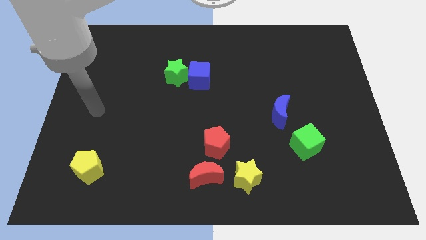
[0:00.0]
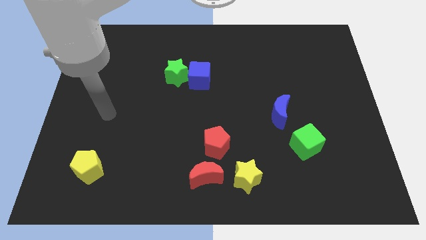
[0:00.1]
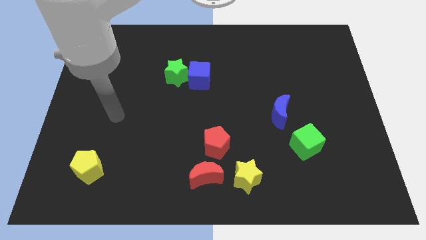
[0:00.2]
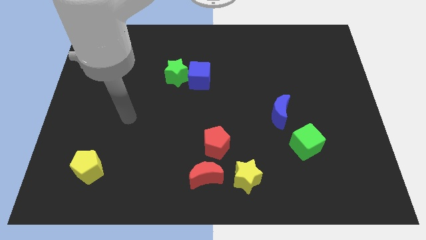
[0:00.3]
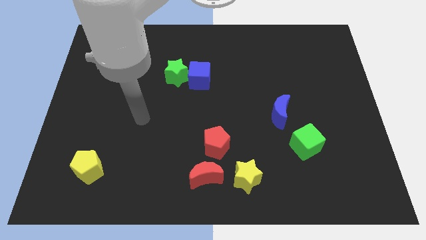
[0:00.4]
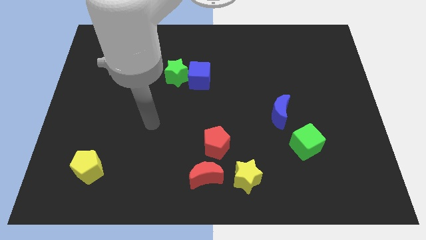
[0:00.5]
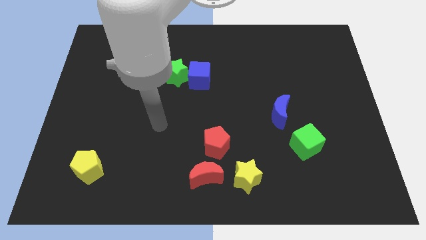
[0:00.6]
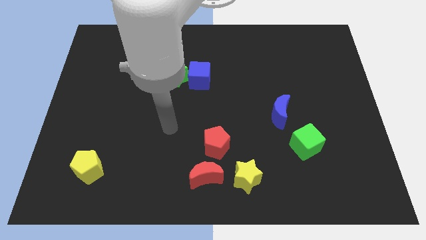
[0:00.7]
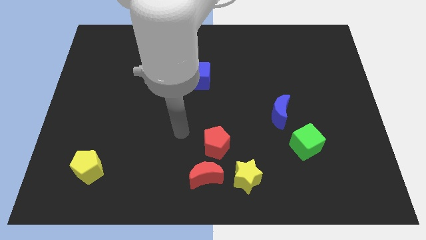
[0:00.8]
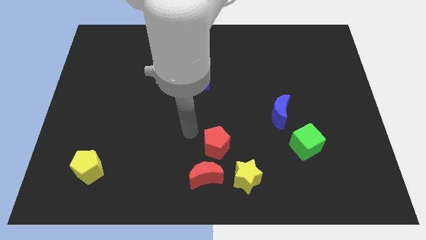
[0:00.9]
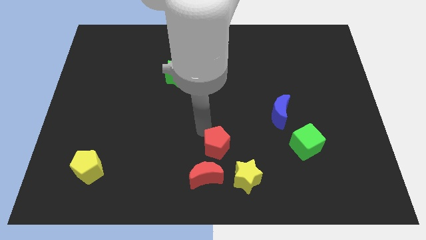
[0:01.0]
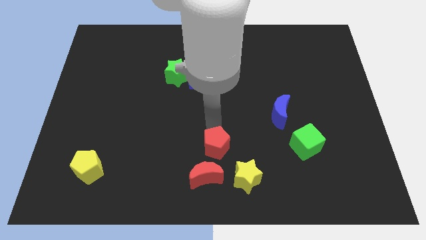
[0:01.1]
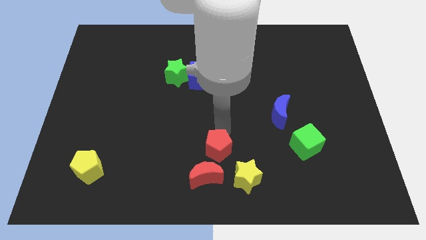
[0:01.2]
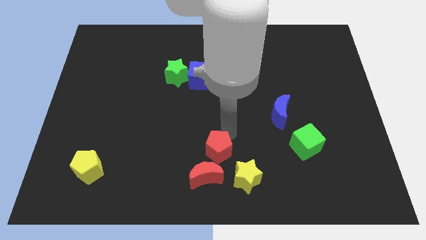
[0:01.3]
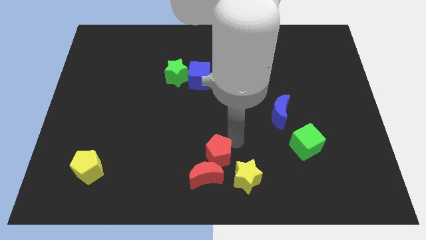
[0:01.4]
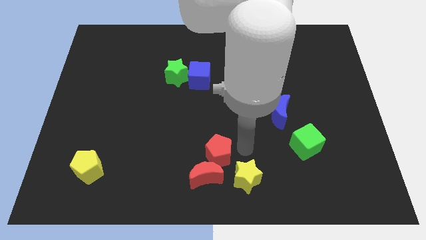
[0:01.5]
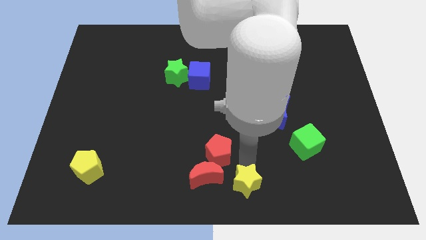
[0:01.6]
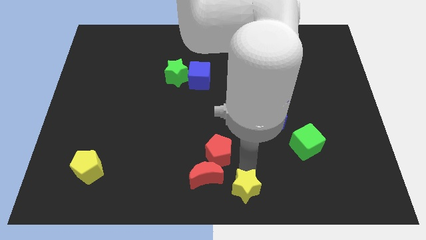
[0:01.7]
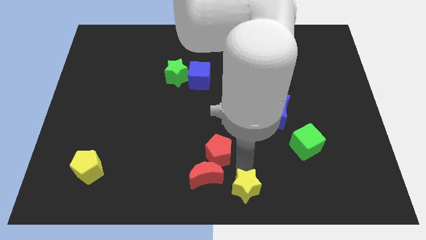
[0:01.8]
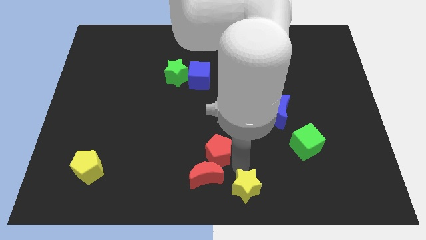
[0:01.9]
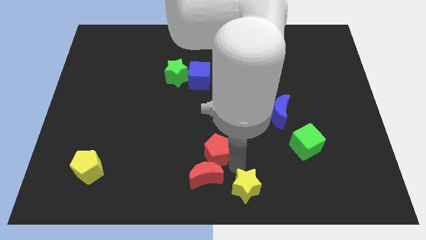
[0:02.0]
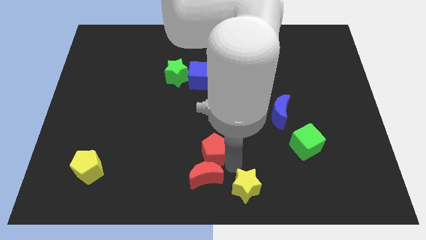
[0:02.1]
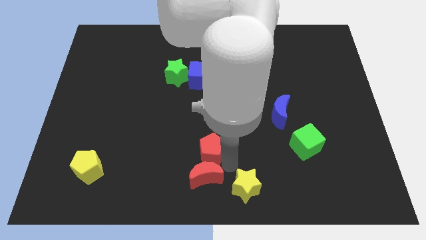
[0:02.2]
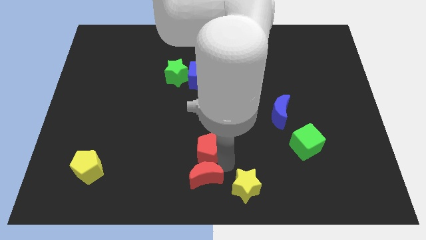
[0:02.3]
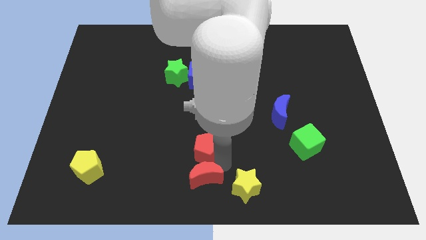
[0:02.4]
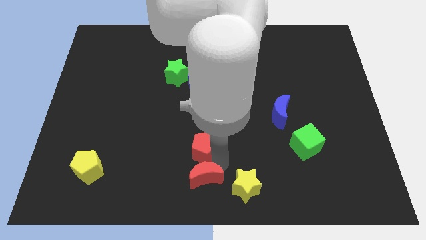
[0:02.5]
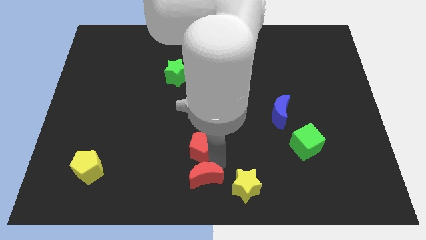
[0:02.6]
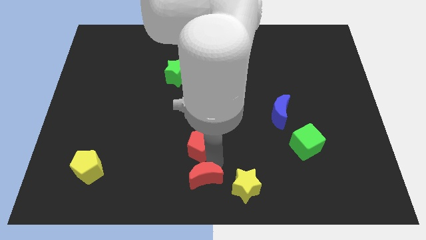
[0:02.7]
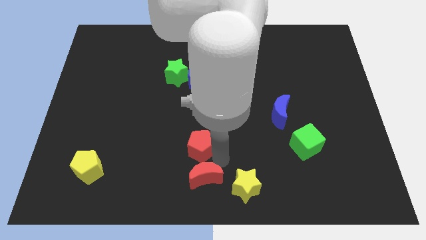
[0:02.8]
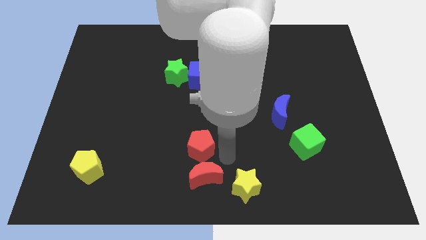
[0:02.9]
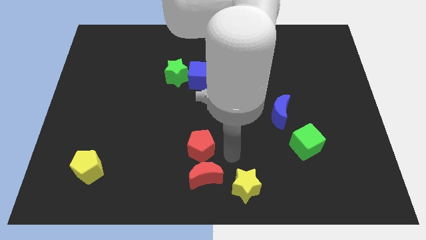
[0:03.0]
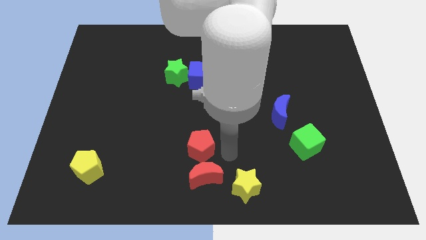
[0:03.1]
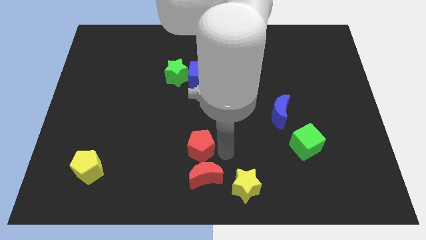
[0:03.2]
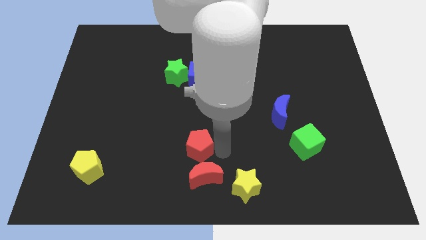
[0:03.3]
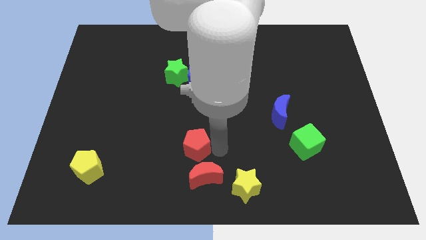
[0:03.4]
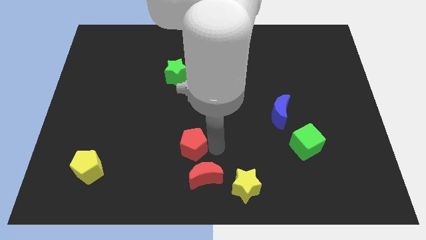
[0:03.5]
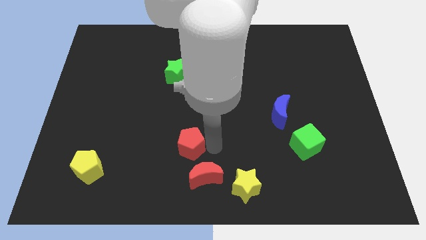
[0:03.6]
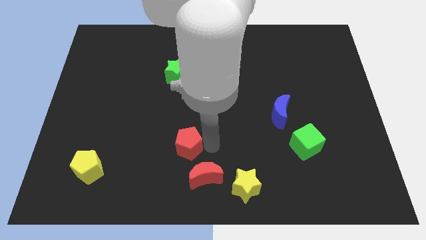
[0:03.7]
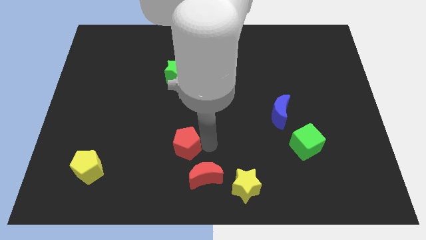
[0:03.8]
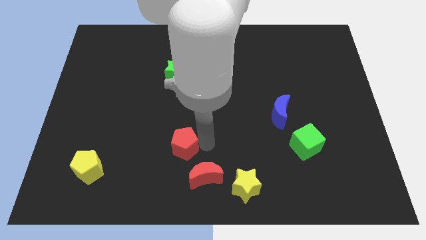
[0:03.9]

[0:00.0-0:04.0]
slightly push the red pentagon left

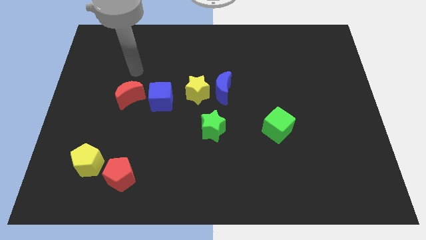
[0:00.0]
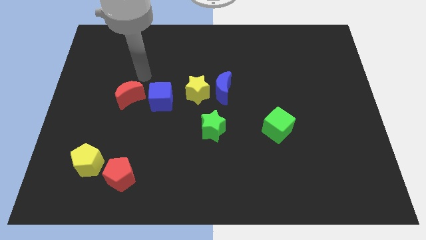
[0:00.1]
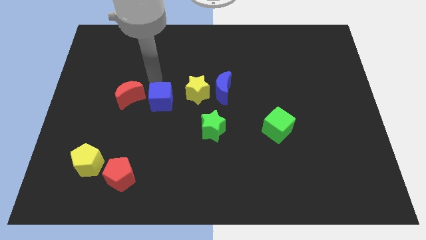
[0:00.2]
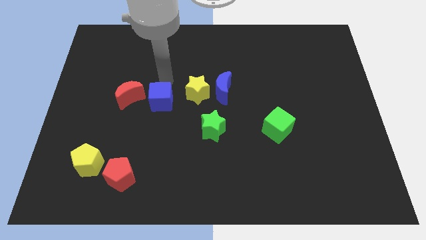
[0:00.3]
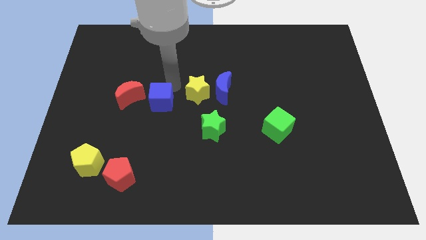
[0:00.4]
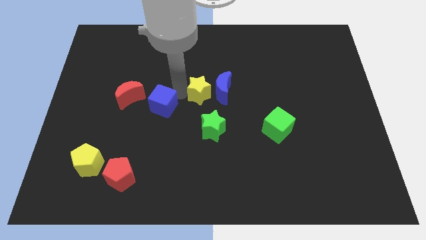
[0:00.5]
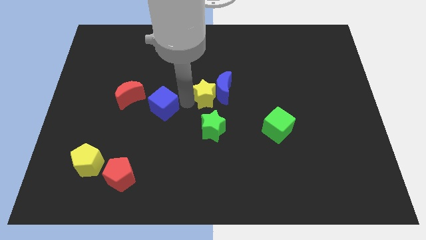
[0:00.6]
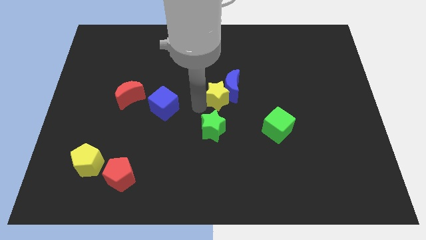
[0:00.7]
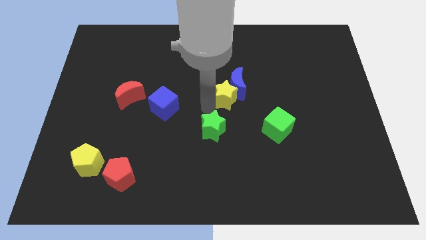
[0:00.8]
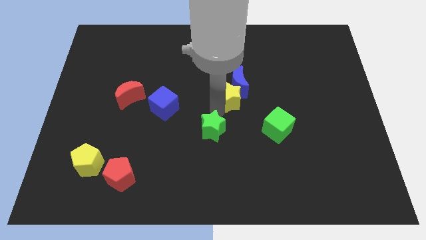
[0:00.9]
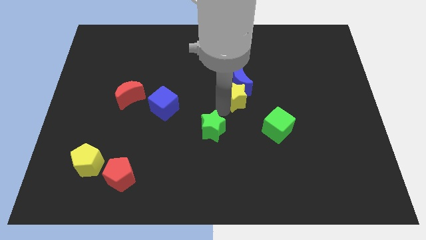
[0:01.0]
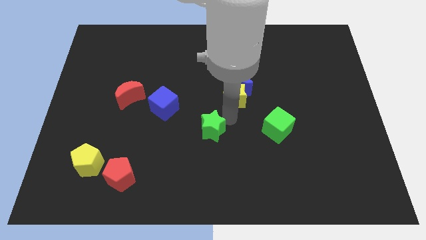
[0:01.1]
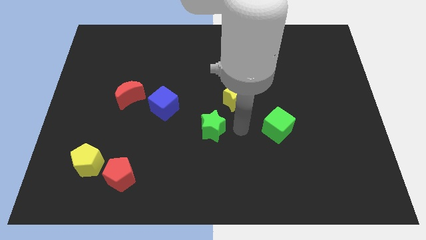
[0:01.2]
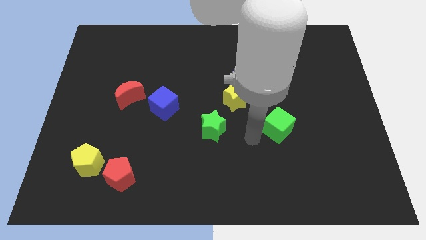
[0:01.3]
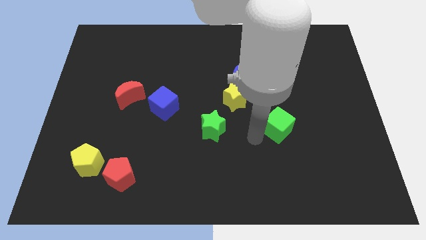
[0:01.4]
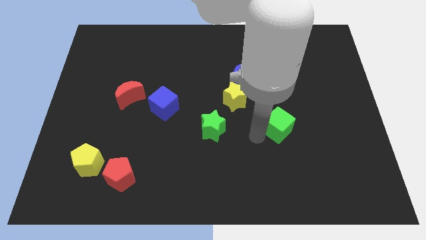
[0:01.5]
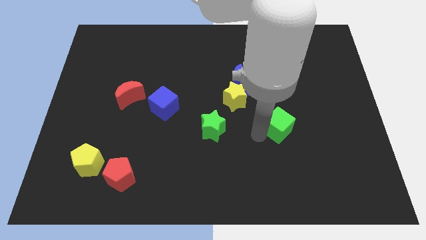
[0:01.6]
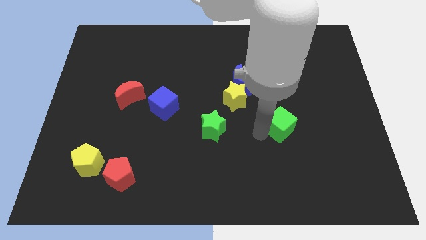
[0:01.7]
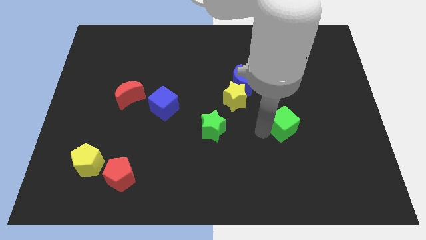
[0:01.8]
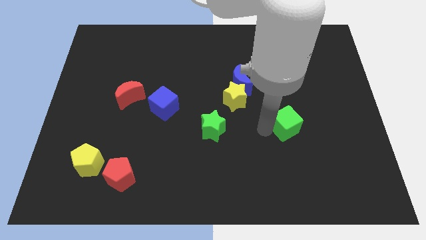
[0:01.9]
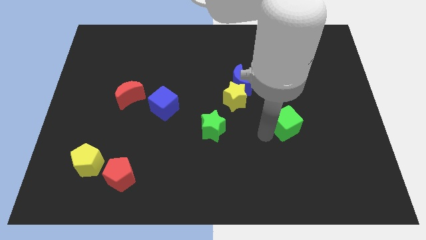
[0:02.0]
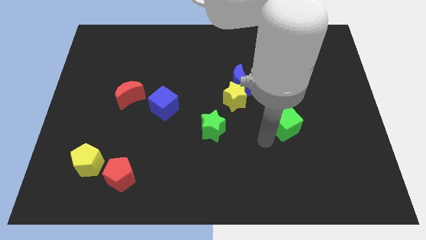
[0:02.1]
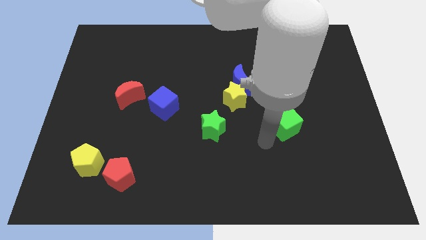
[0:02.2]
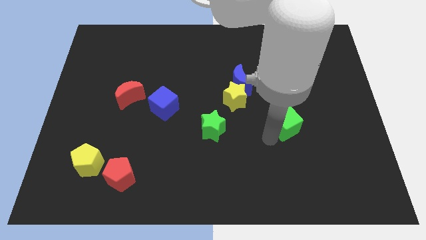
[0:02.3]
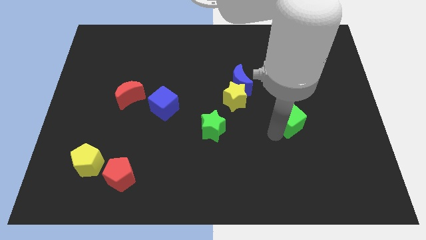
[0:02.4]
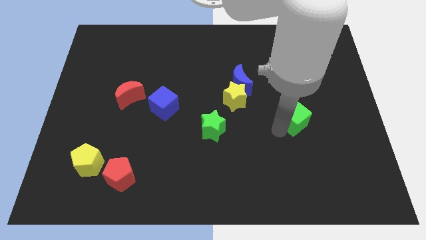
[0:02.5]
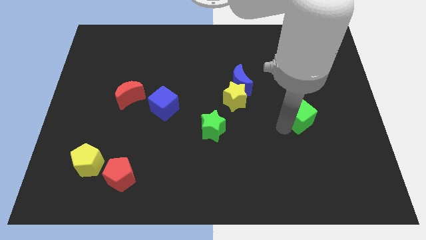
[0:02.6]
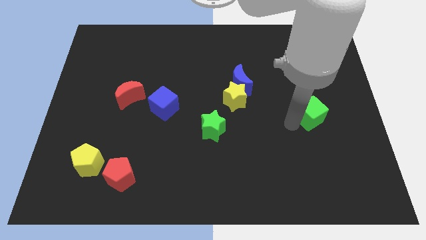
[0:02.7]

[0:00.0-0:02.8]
push the green cube somewhat up and then right

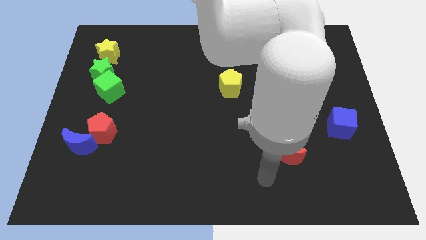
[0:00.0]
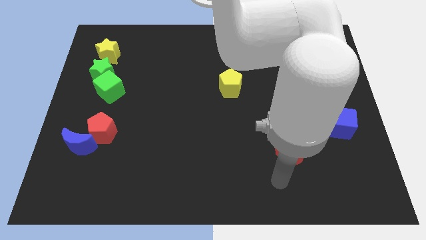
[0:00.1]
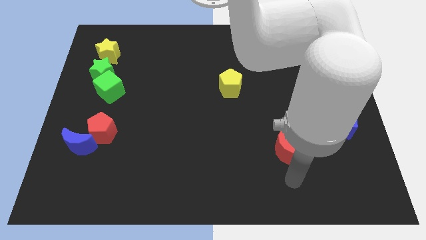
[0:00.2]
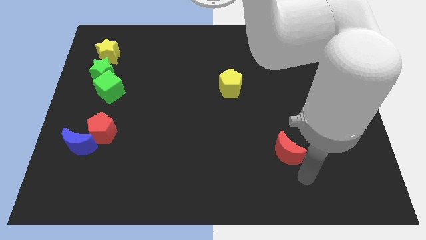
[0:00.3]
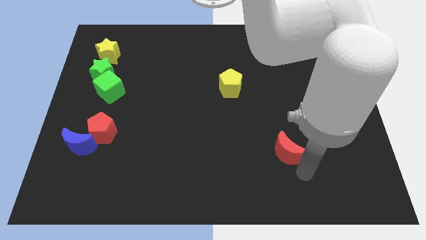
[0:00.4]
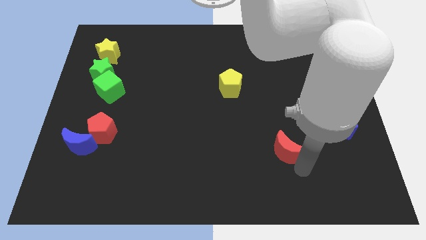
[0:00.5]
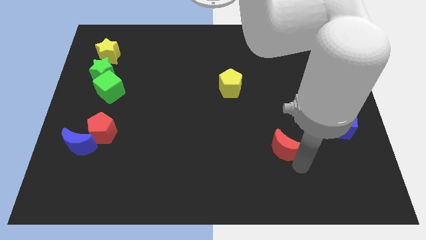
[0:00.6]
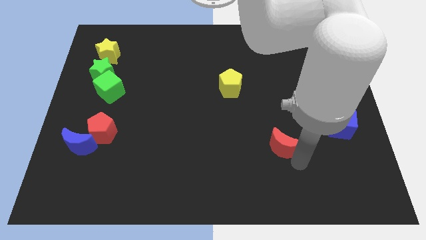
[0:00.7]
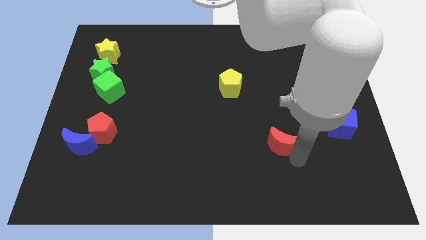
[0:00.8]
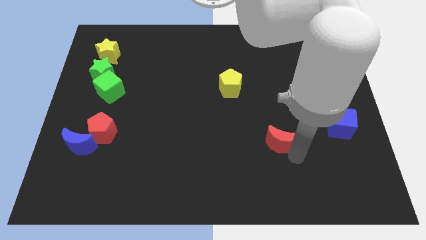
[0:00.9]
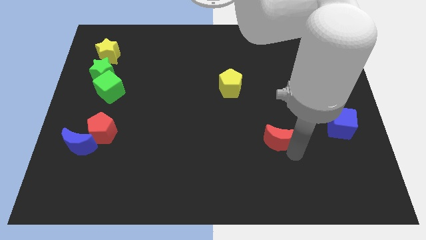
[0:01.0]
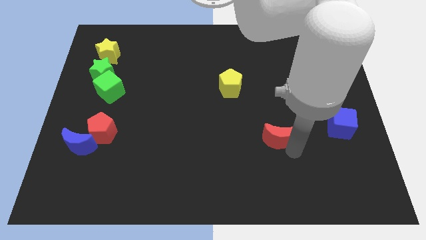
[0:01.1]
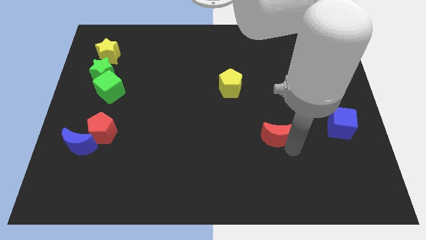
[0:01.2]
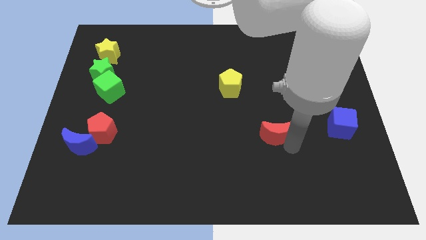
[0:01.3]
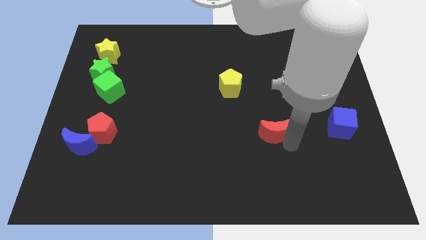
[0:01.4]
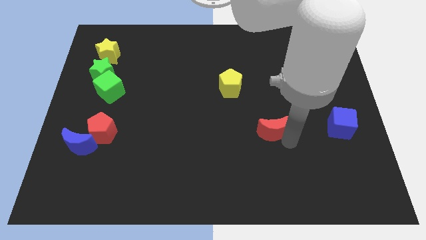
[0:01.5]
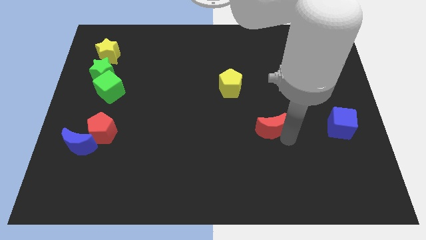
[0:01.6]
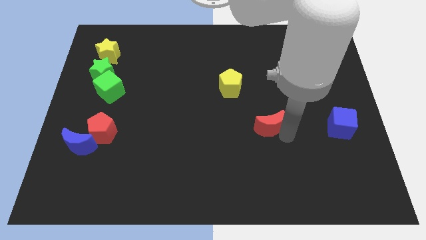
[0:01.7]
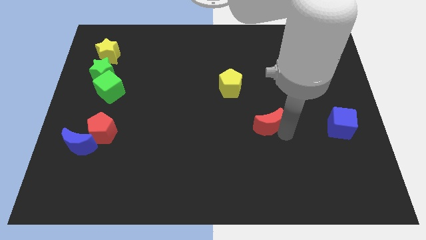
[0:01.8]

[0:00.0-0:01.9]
slightly push the red moon up and then left
